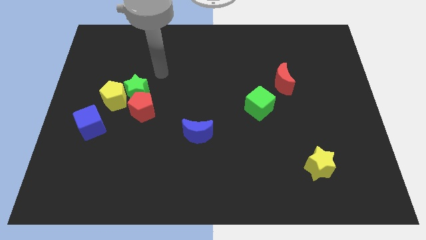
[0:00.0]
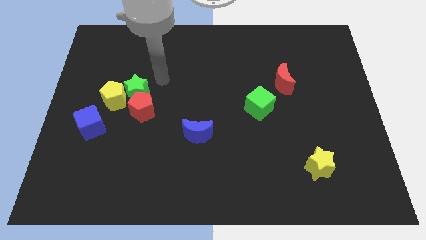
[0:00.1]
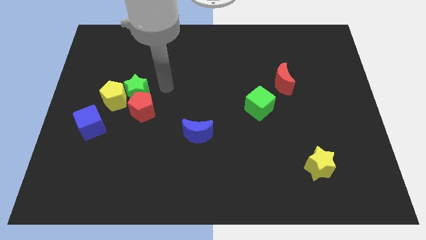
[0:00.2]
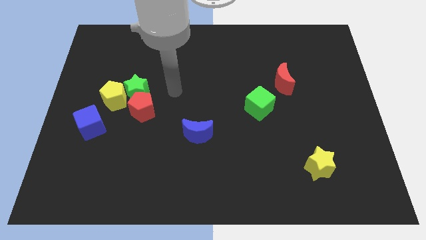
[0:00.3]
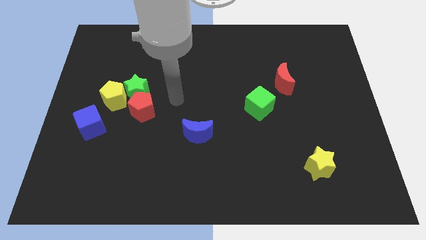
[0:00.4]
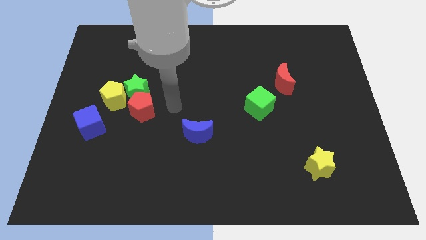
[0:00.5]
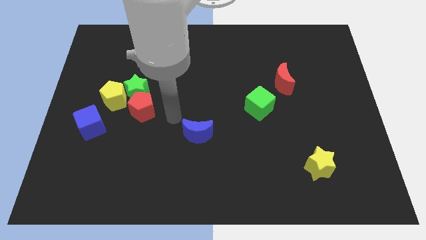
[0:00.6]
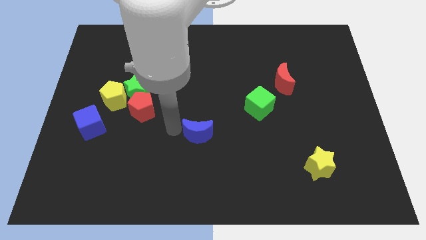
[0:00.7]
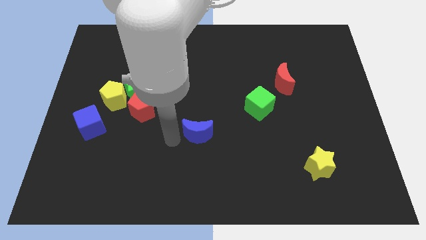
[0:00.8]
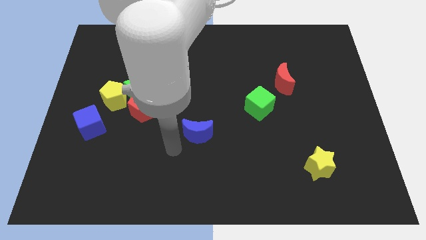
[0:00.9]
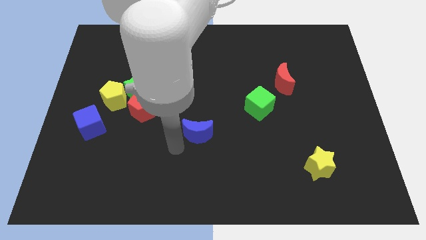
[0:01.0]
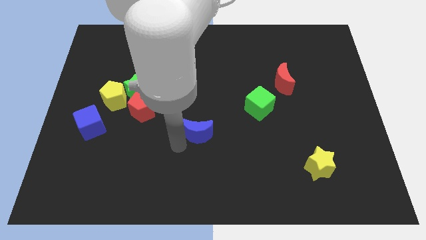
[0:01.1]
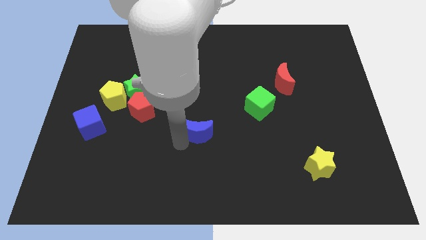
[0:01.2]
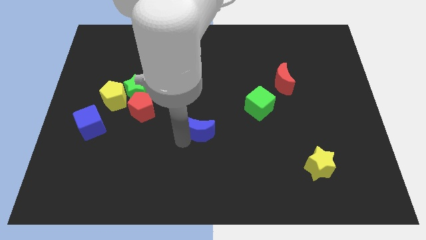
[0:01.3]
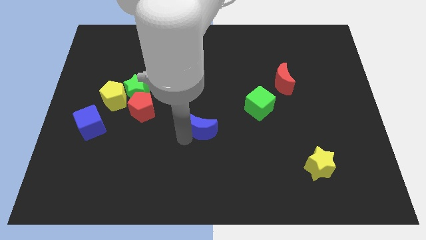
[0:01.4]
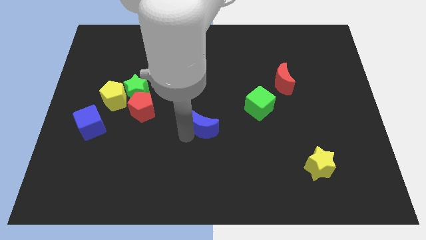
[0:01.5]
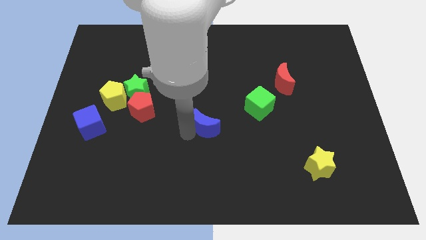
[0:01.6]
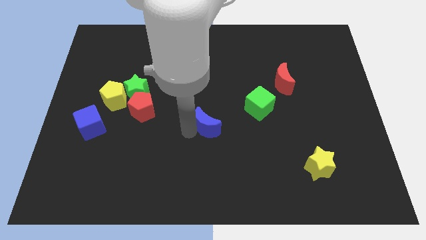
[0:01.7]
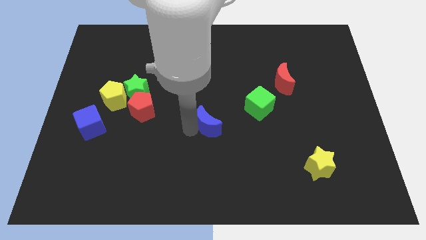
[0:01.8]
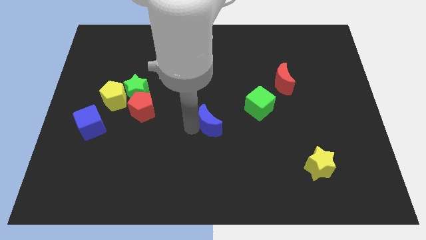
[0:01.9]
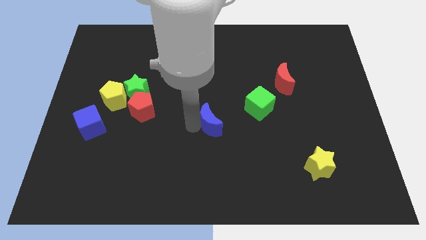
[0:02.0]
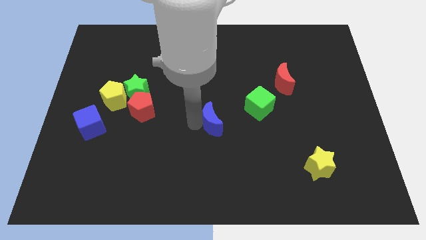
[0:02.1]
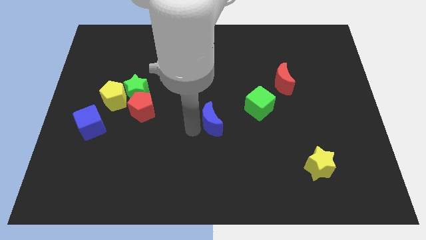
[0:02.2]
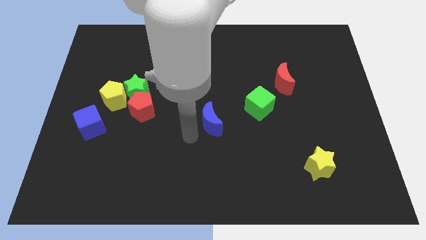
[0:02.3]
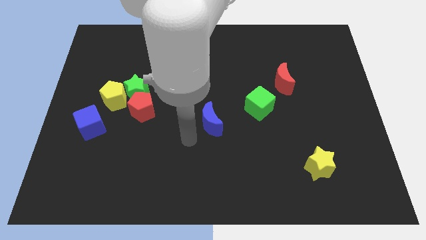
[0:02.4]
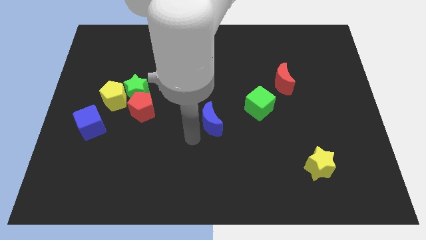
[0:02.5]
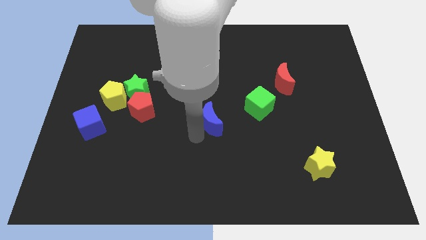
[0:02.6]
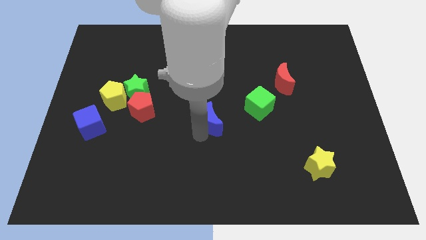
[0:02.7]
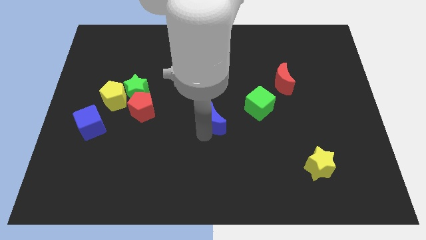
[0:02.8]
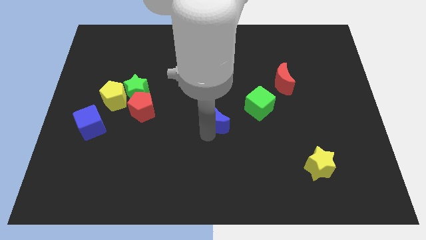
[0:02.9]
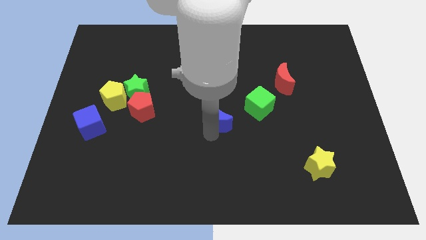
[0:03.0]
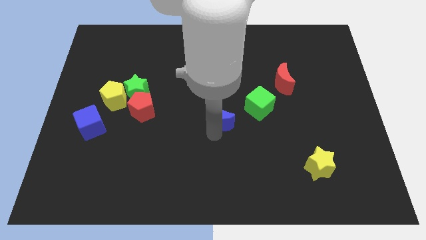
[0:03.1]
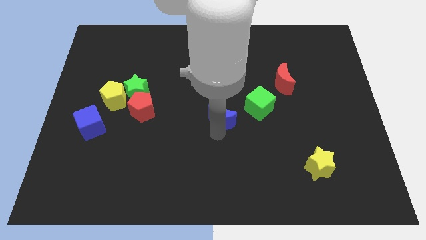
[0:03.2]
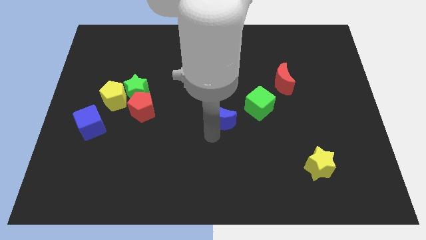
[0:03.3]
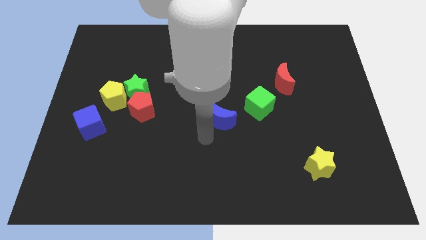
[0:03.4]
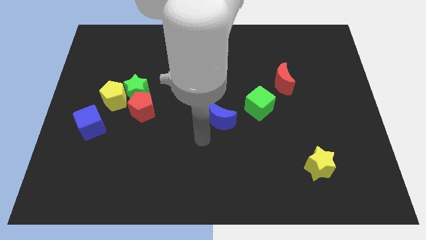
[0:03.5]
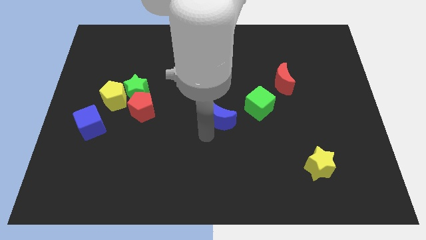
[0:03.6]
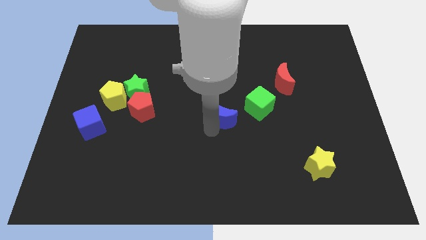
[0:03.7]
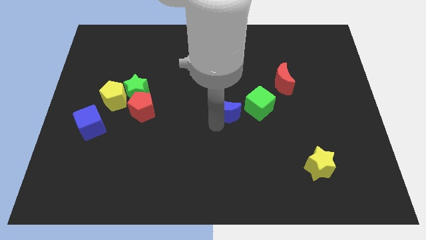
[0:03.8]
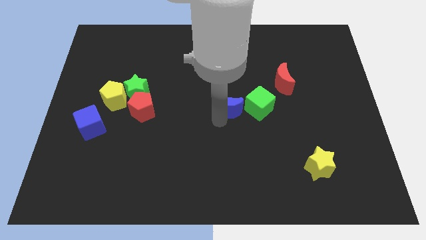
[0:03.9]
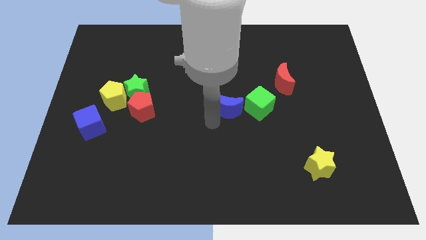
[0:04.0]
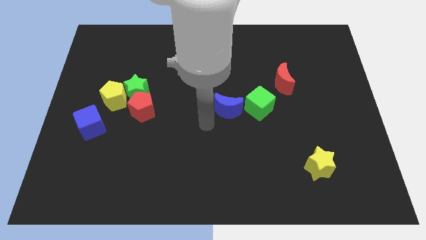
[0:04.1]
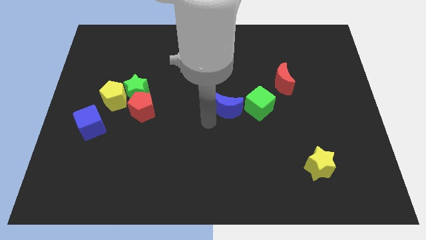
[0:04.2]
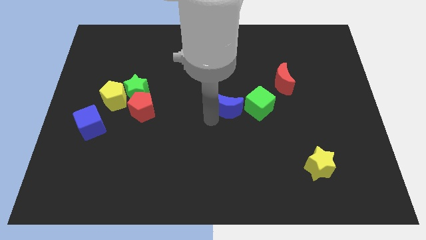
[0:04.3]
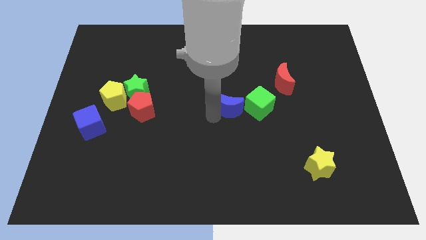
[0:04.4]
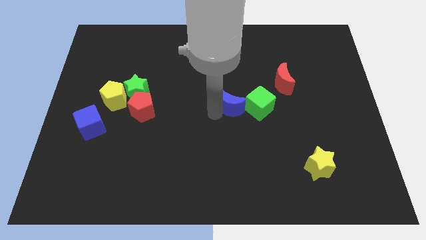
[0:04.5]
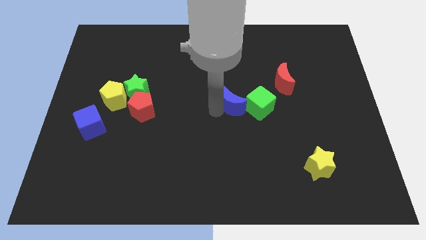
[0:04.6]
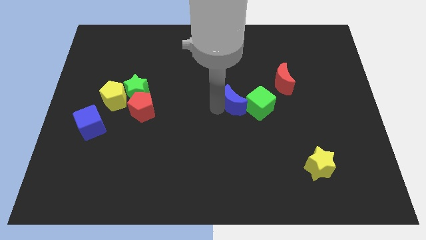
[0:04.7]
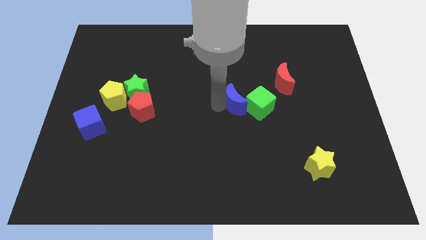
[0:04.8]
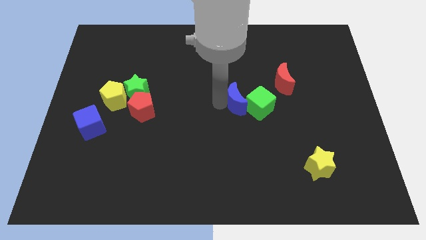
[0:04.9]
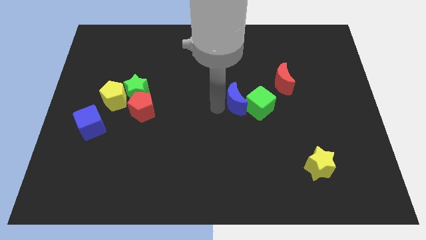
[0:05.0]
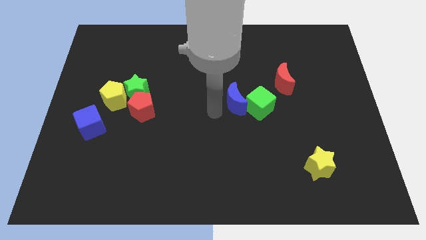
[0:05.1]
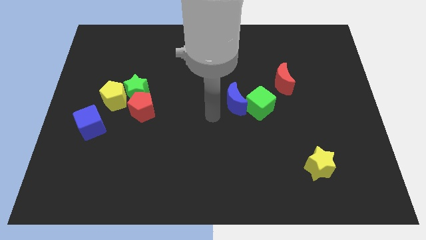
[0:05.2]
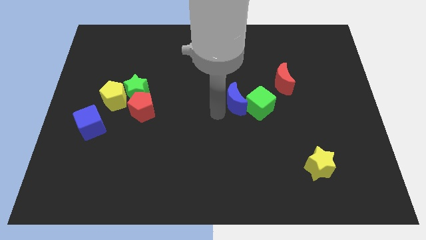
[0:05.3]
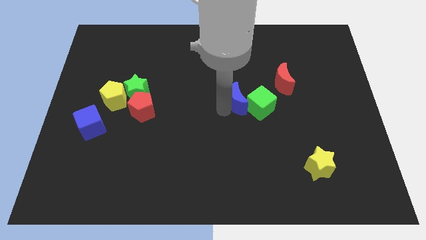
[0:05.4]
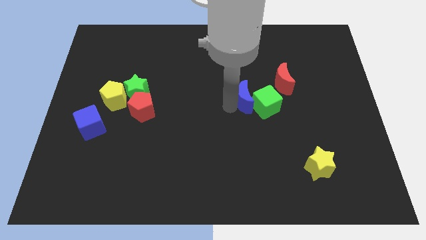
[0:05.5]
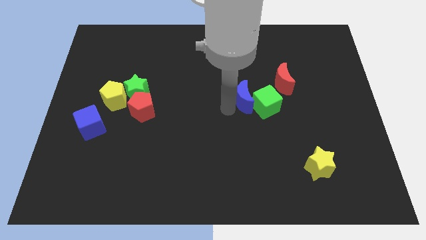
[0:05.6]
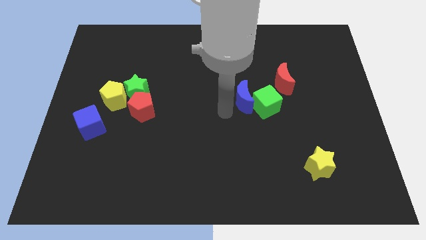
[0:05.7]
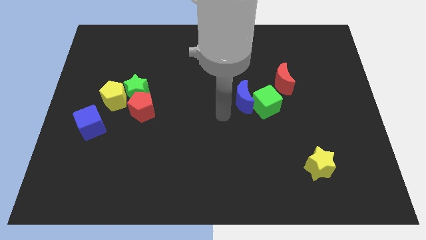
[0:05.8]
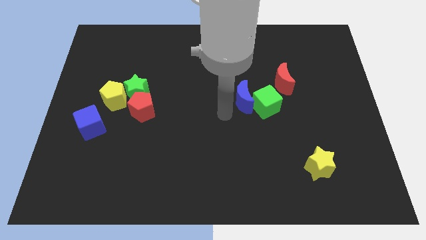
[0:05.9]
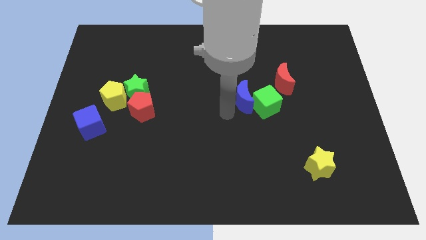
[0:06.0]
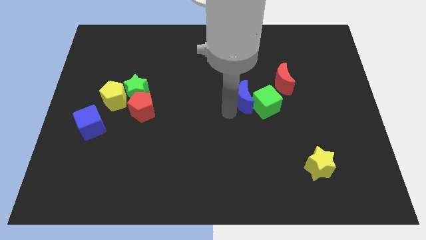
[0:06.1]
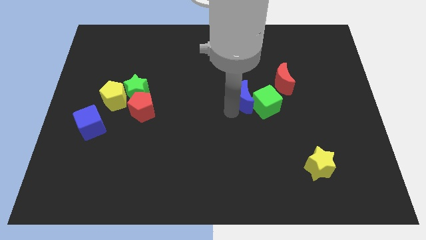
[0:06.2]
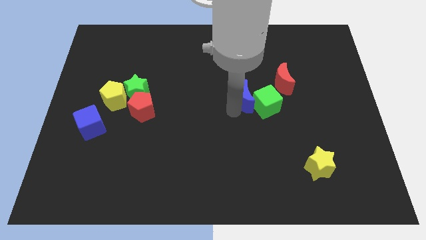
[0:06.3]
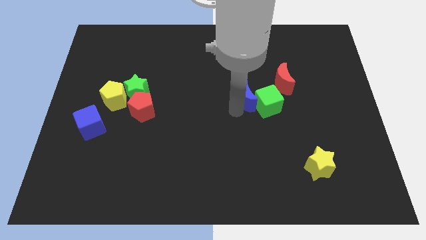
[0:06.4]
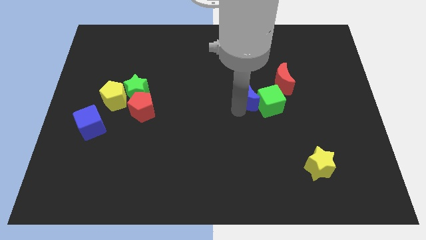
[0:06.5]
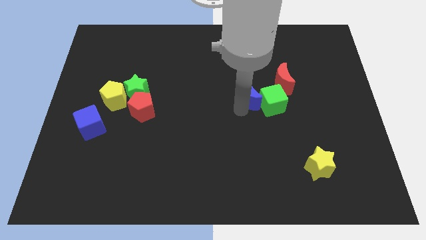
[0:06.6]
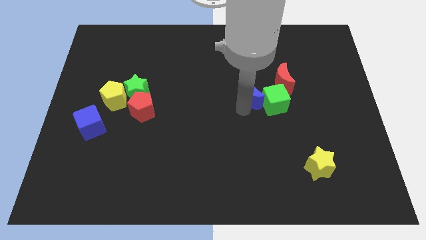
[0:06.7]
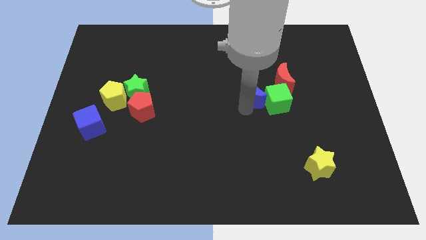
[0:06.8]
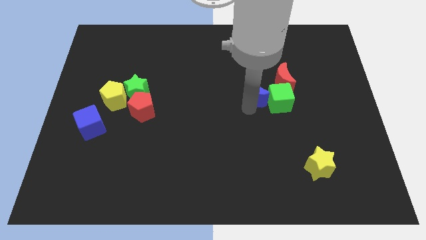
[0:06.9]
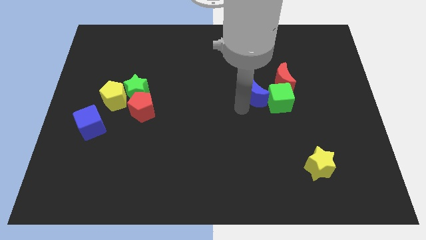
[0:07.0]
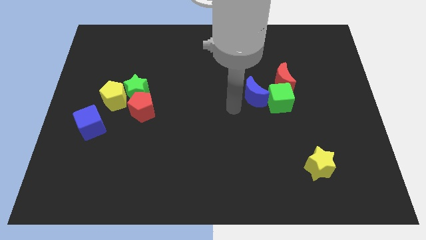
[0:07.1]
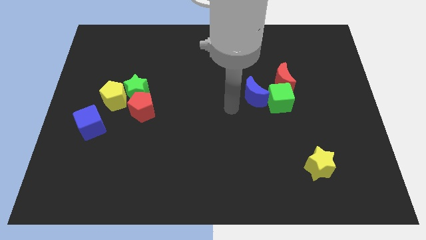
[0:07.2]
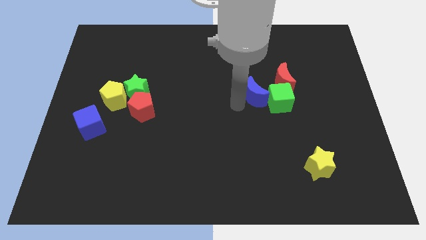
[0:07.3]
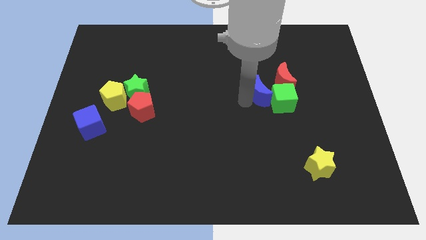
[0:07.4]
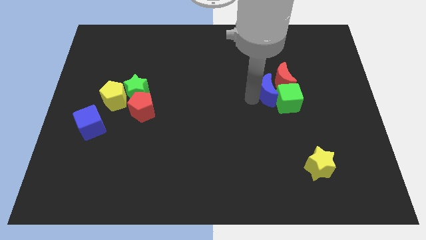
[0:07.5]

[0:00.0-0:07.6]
push the blue moon next to the red moon
